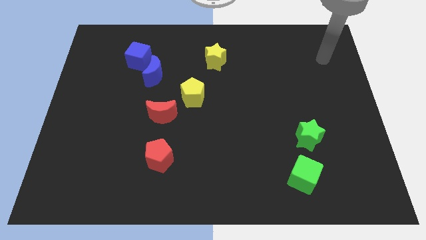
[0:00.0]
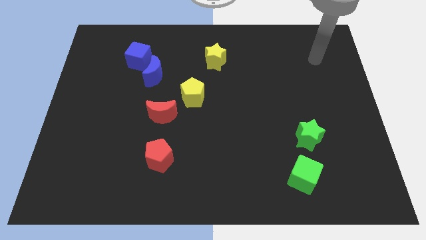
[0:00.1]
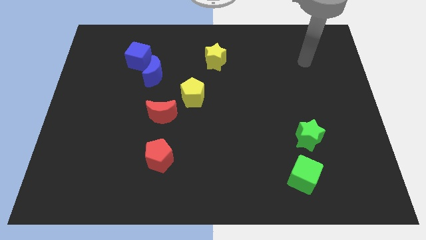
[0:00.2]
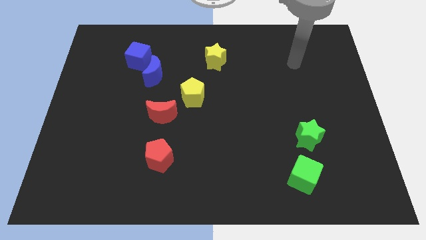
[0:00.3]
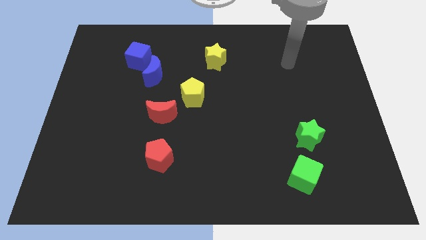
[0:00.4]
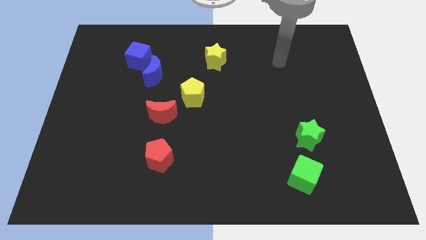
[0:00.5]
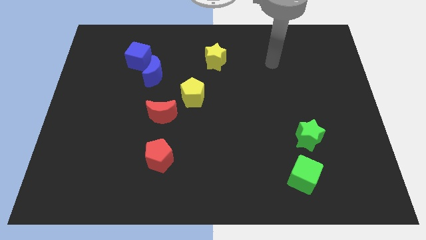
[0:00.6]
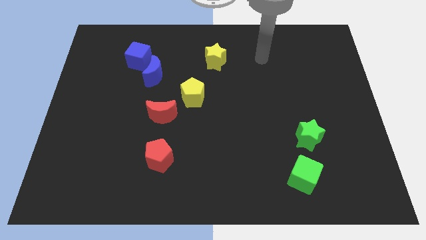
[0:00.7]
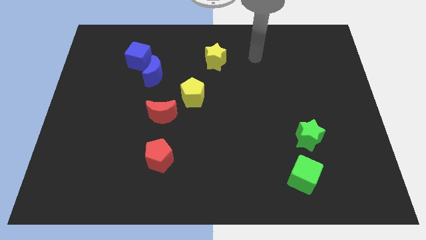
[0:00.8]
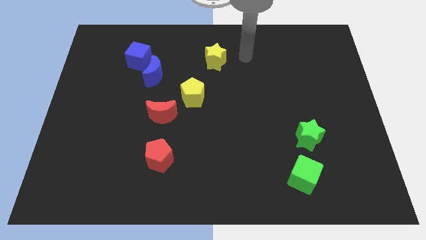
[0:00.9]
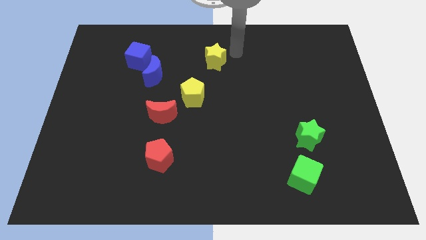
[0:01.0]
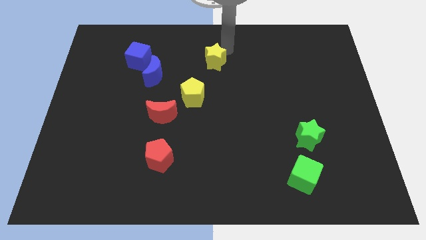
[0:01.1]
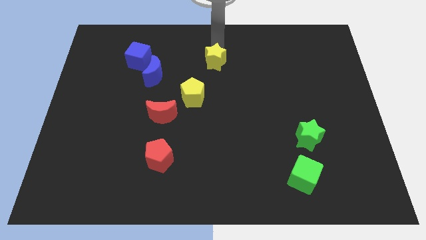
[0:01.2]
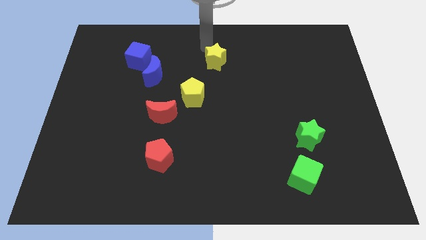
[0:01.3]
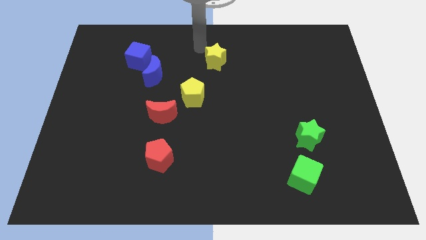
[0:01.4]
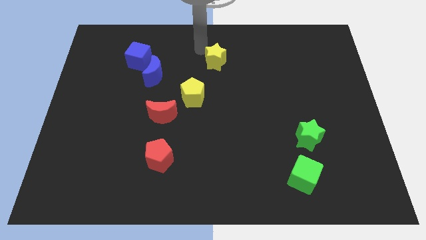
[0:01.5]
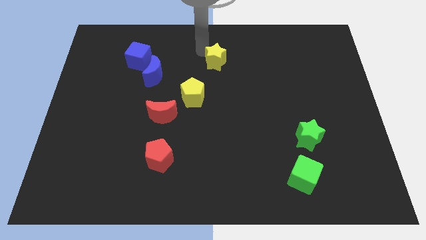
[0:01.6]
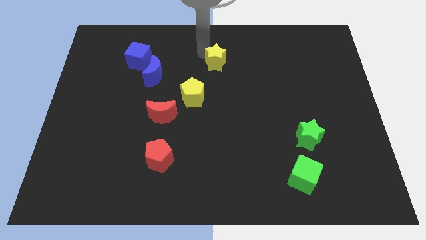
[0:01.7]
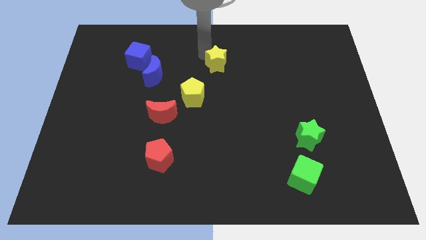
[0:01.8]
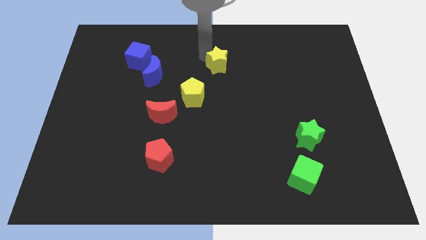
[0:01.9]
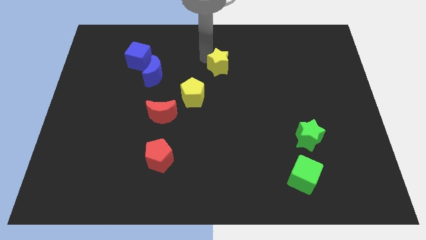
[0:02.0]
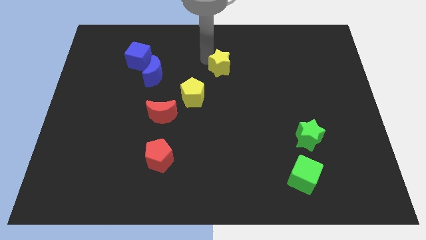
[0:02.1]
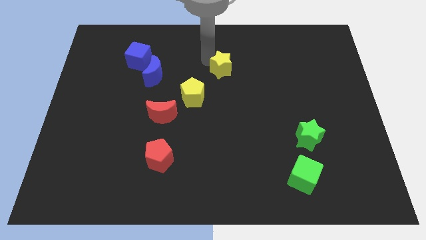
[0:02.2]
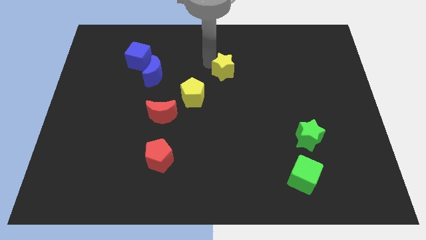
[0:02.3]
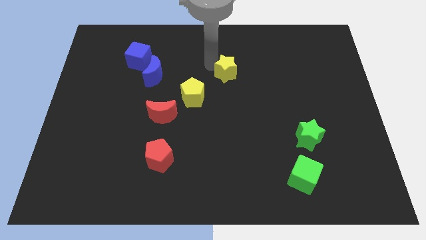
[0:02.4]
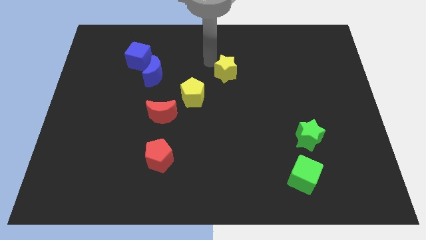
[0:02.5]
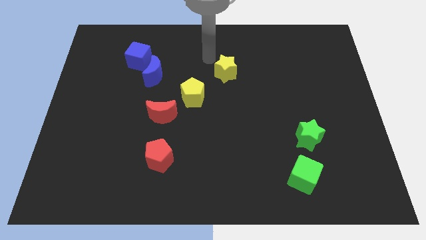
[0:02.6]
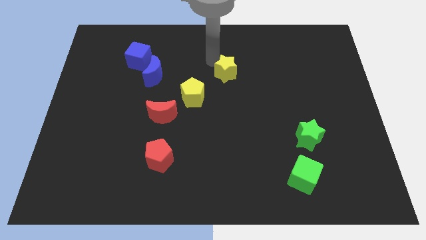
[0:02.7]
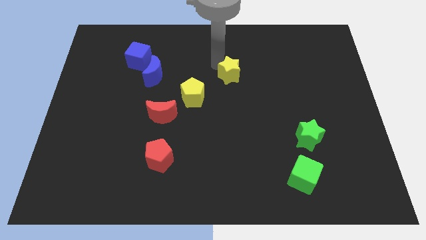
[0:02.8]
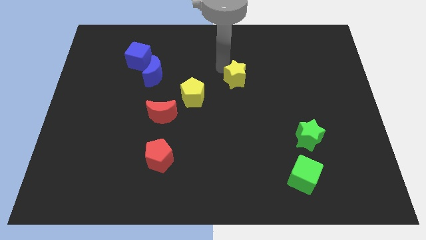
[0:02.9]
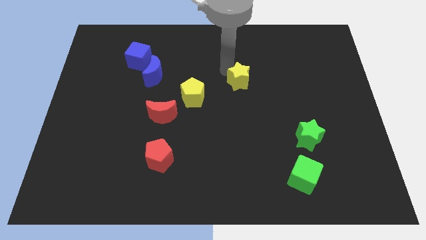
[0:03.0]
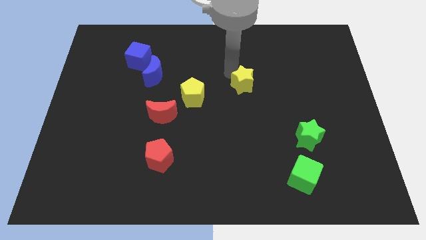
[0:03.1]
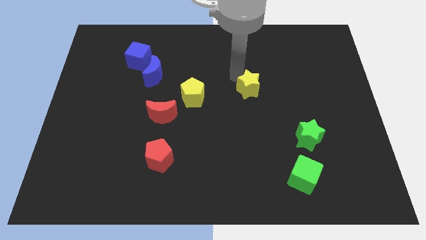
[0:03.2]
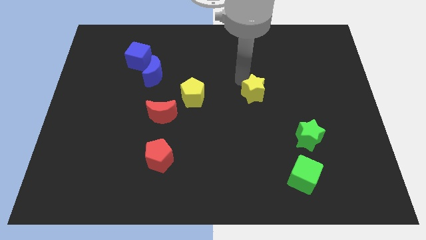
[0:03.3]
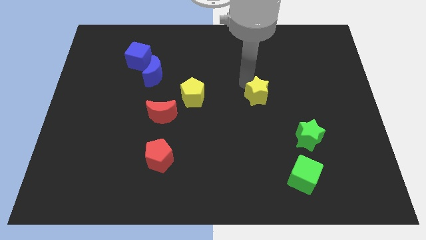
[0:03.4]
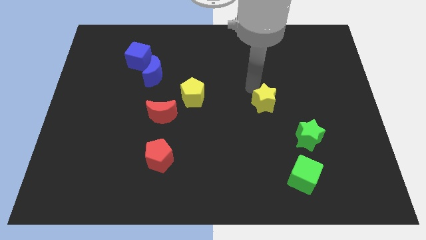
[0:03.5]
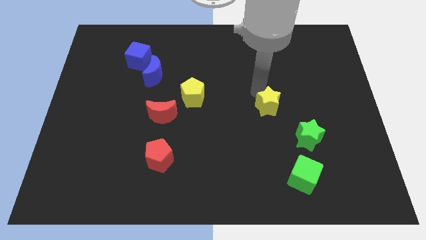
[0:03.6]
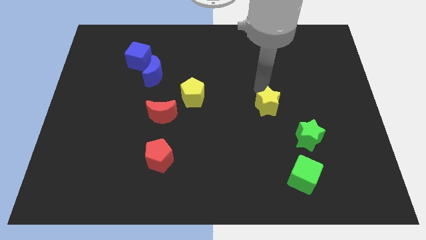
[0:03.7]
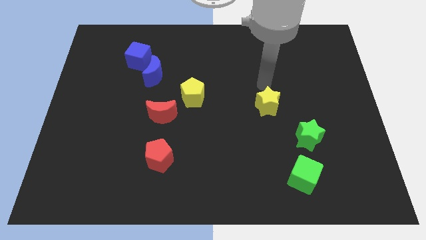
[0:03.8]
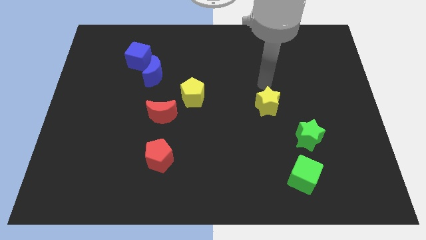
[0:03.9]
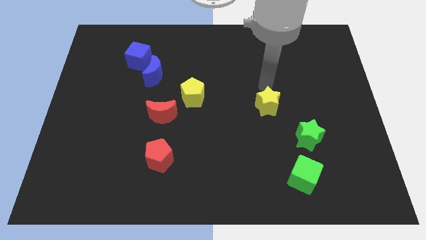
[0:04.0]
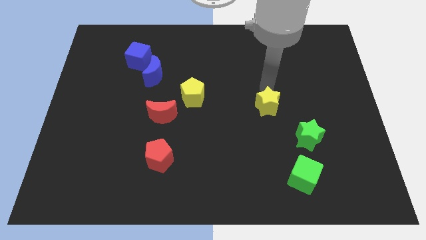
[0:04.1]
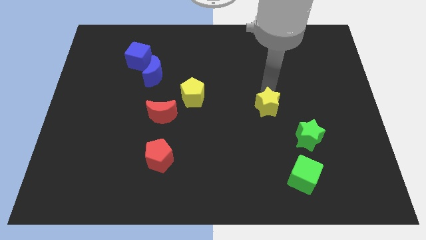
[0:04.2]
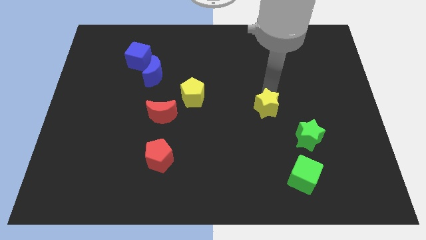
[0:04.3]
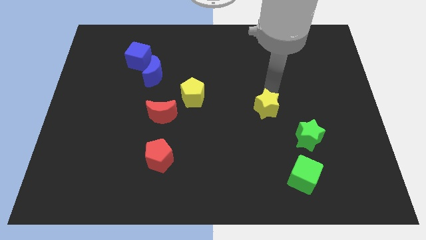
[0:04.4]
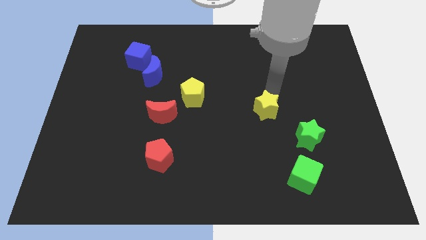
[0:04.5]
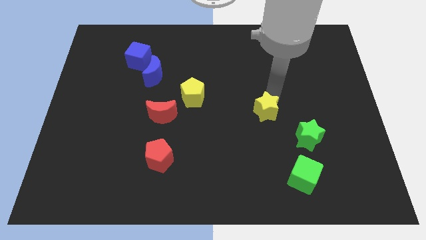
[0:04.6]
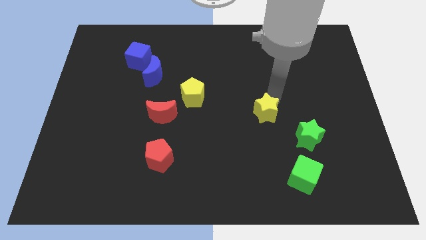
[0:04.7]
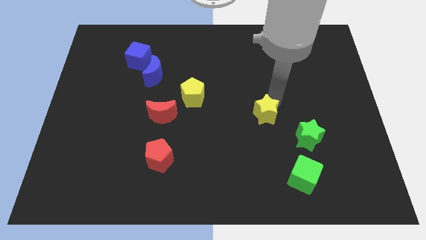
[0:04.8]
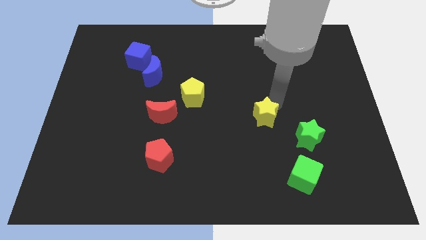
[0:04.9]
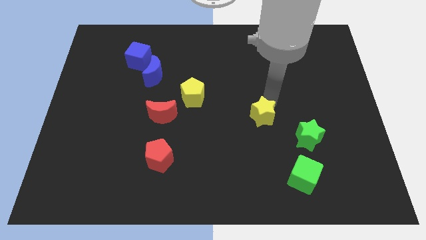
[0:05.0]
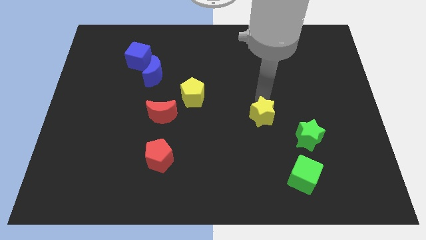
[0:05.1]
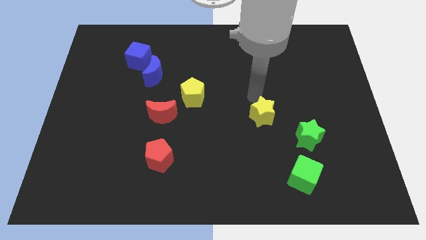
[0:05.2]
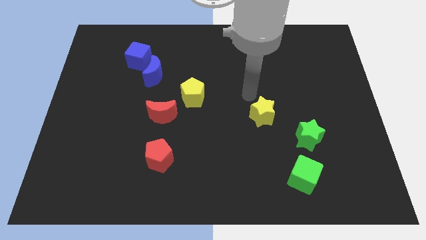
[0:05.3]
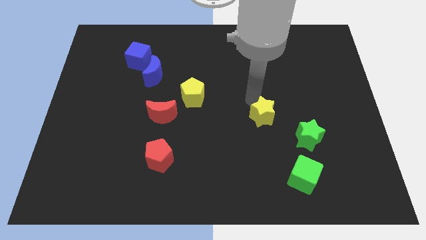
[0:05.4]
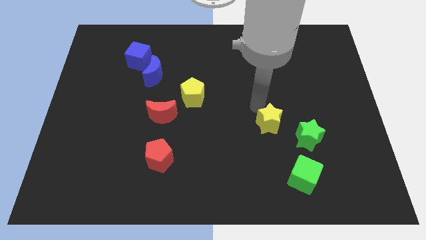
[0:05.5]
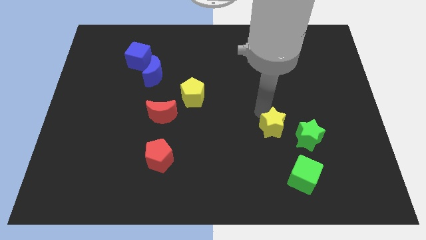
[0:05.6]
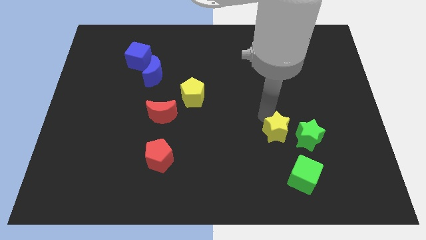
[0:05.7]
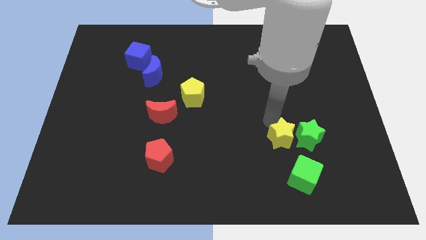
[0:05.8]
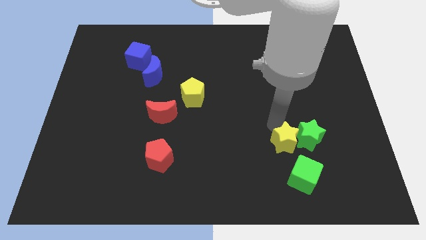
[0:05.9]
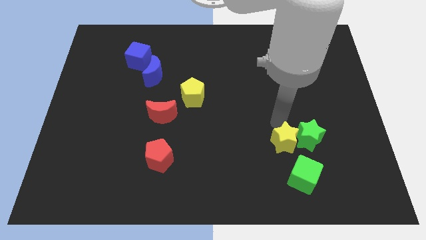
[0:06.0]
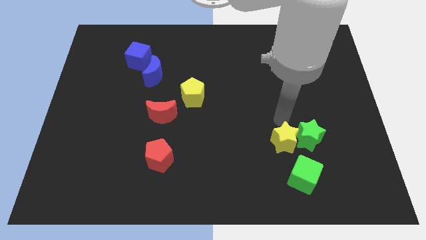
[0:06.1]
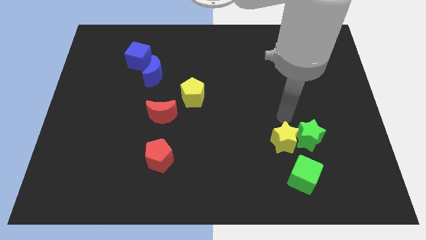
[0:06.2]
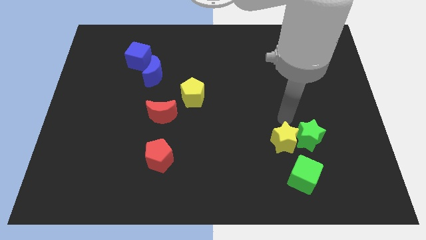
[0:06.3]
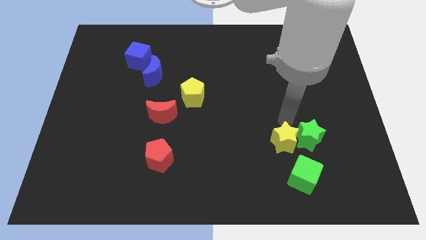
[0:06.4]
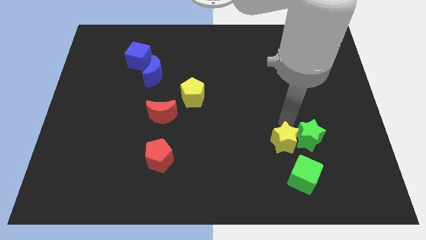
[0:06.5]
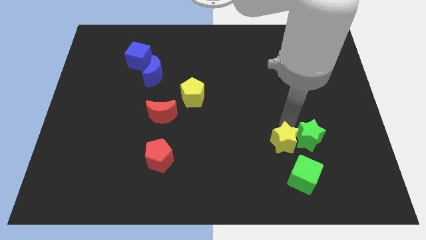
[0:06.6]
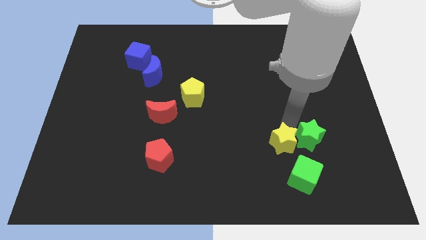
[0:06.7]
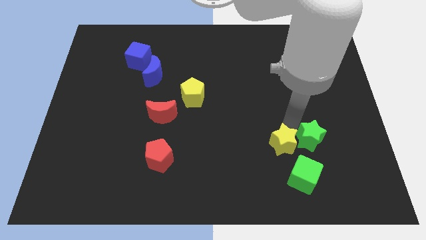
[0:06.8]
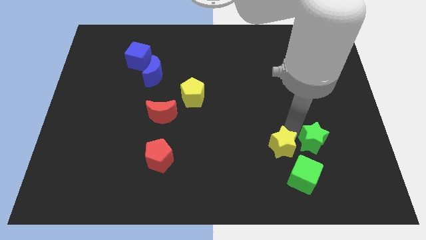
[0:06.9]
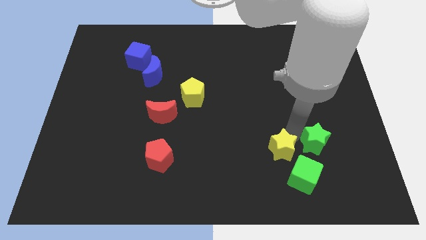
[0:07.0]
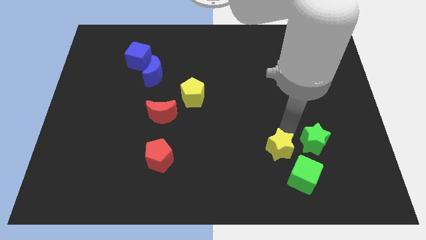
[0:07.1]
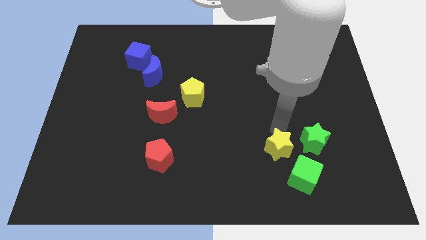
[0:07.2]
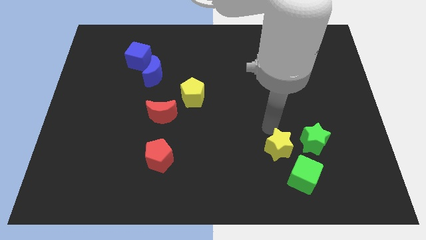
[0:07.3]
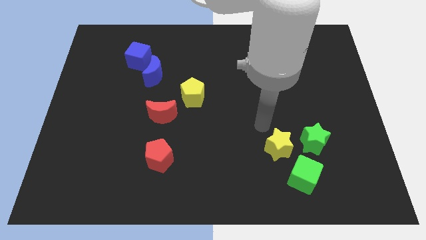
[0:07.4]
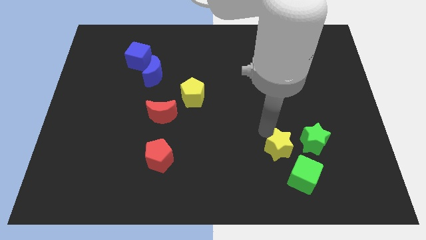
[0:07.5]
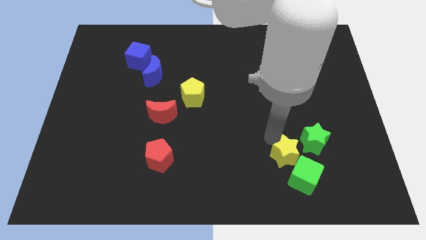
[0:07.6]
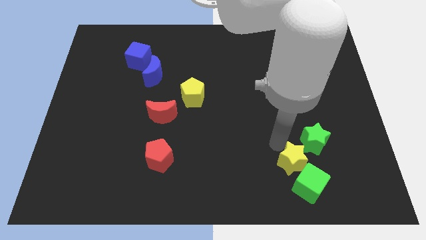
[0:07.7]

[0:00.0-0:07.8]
move the yellow star next to the green cube
